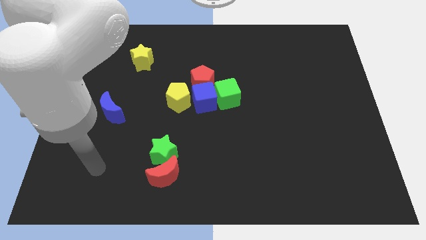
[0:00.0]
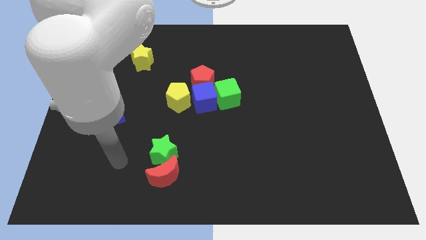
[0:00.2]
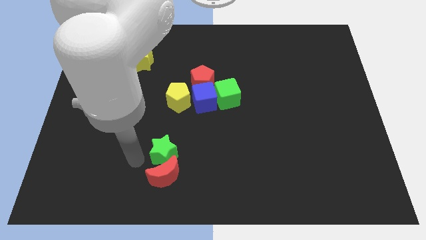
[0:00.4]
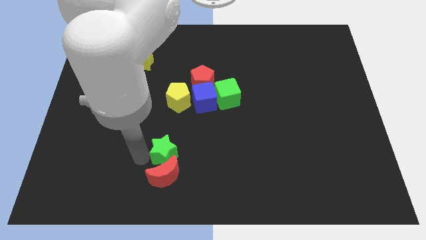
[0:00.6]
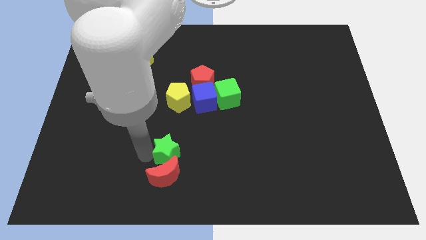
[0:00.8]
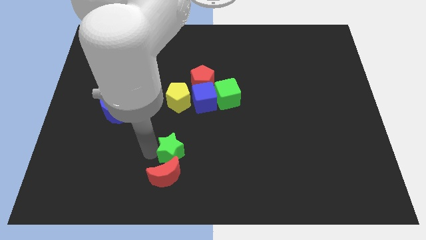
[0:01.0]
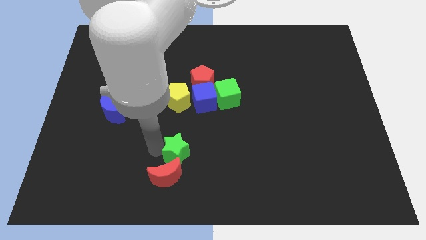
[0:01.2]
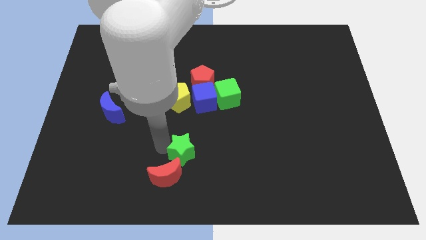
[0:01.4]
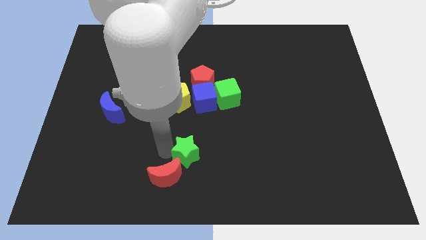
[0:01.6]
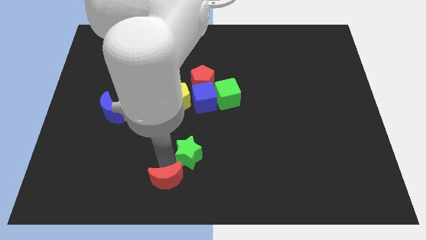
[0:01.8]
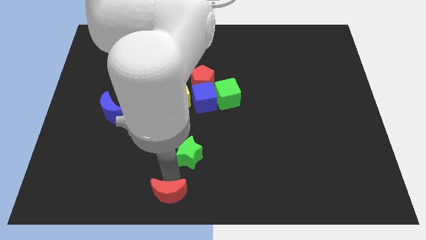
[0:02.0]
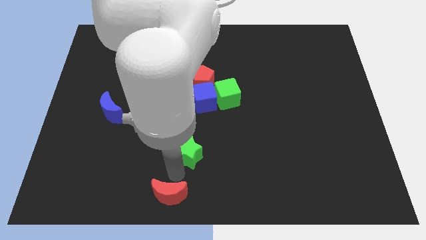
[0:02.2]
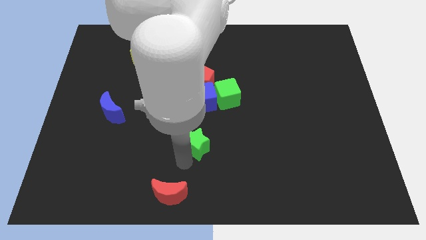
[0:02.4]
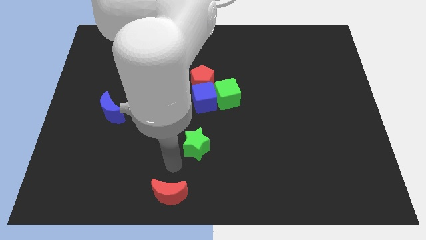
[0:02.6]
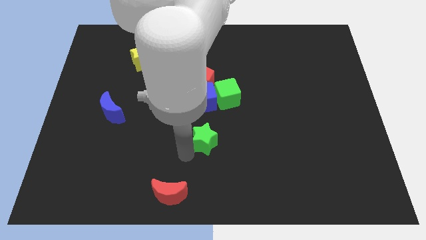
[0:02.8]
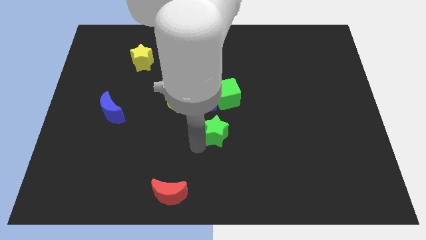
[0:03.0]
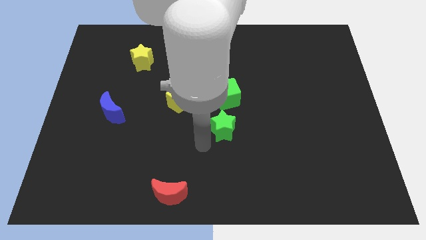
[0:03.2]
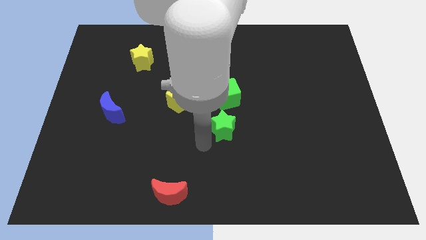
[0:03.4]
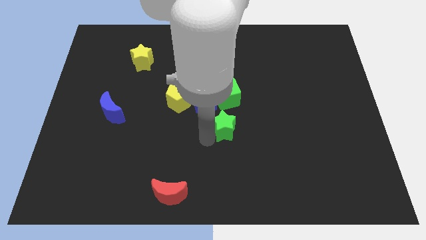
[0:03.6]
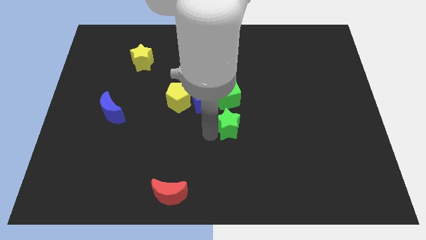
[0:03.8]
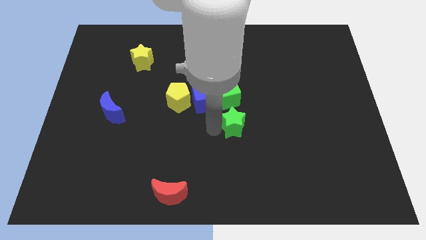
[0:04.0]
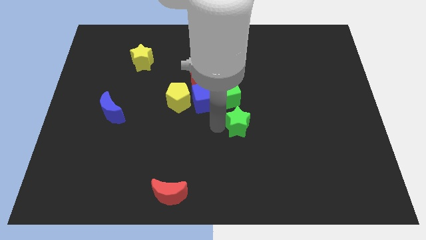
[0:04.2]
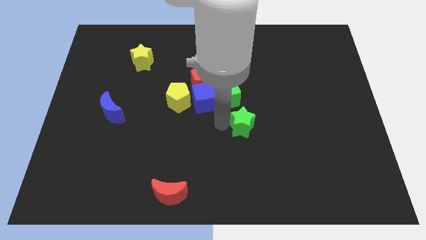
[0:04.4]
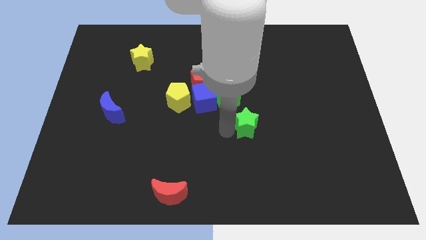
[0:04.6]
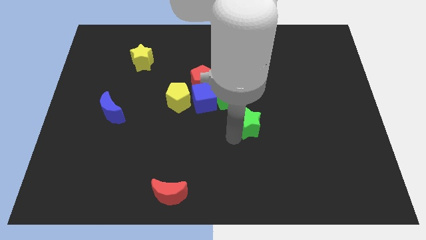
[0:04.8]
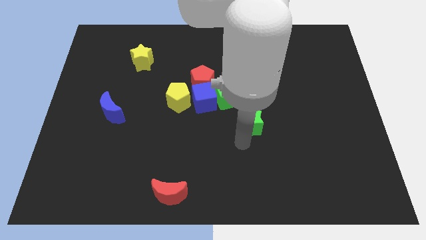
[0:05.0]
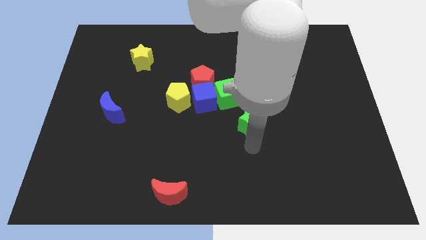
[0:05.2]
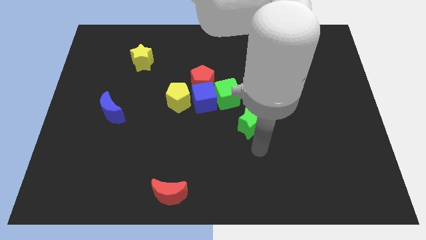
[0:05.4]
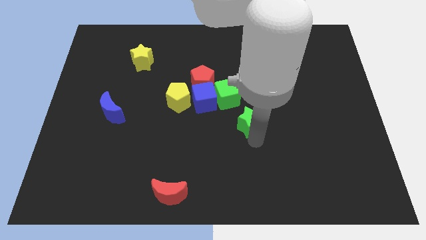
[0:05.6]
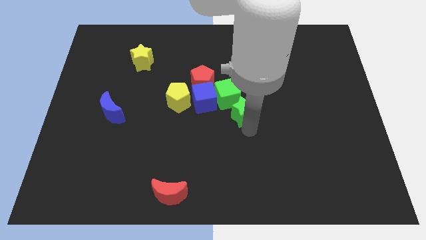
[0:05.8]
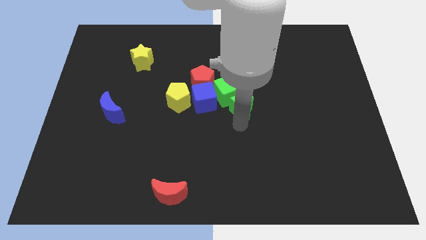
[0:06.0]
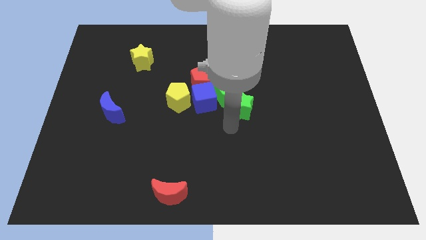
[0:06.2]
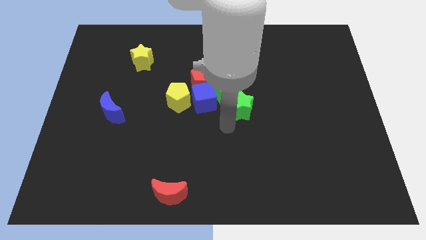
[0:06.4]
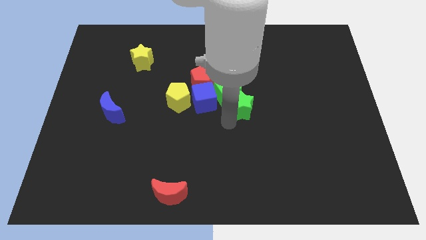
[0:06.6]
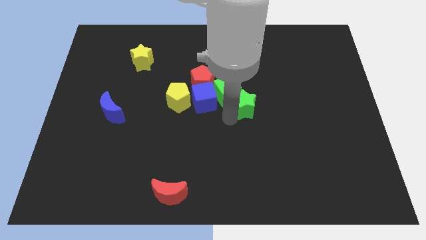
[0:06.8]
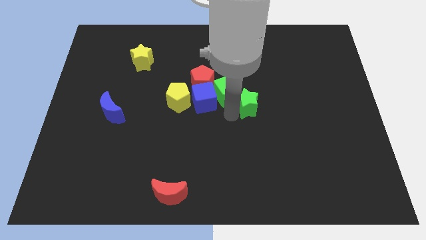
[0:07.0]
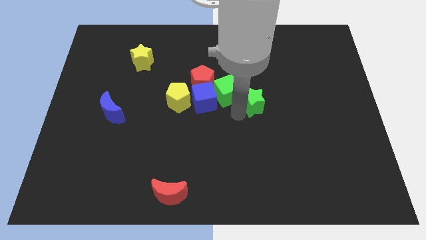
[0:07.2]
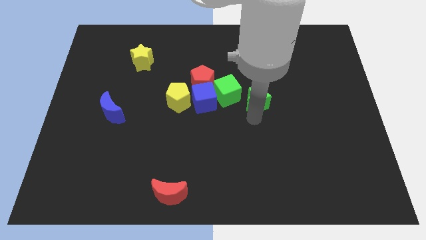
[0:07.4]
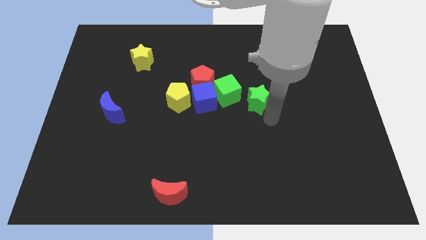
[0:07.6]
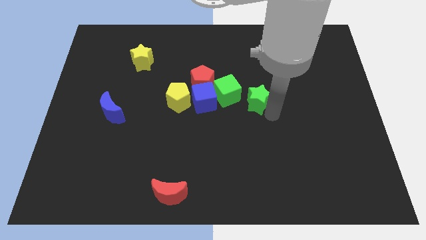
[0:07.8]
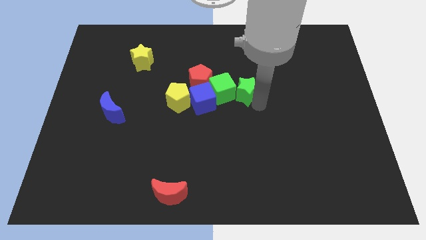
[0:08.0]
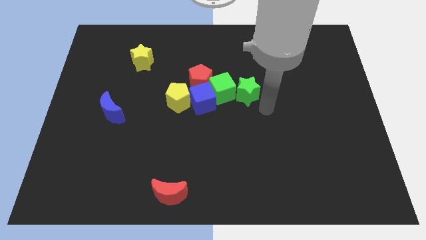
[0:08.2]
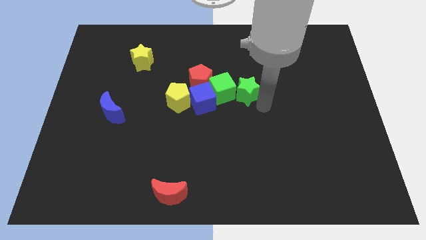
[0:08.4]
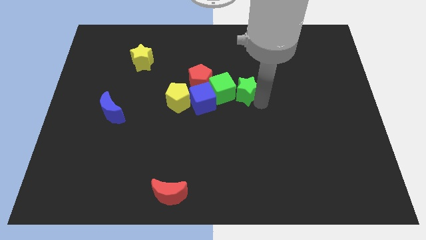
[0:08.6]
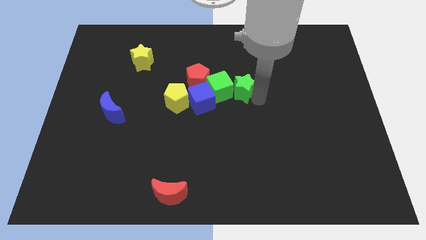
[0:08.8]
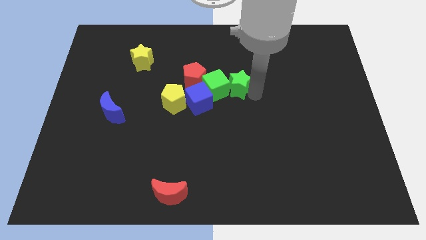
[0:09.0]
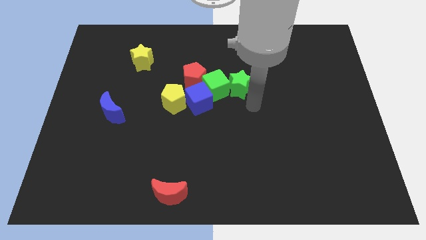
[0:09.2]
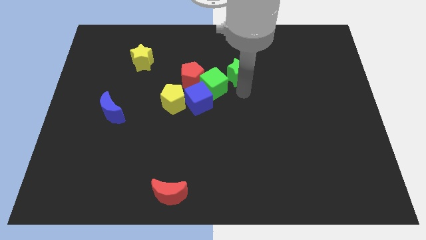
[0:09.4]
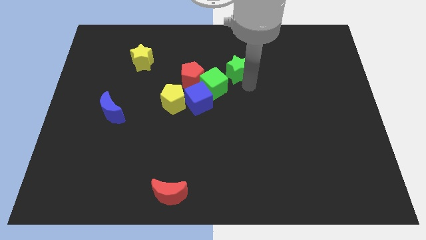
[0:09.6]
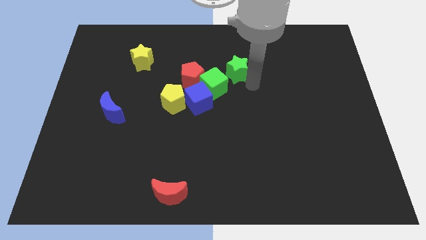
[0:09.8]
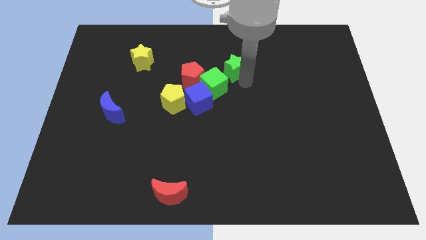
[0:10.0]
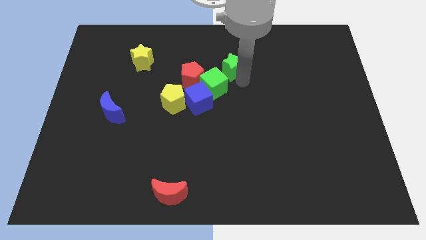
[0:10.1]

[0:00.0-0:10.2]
slide the green star to the top of the green cube

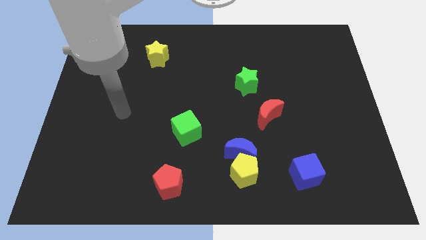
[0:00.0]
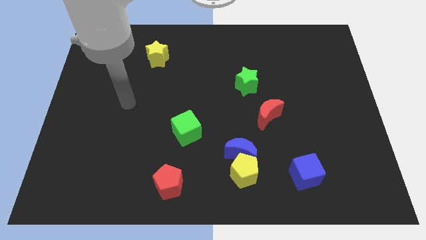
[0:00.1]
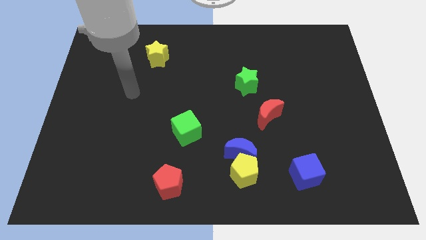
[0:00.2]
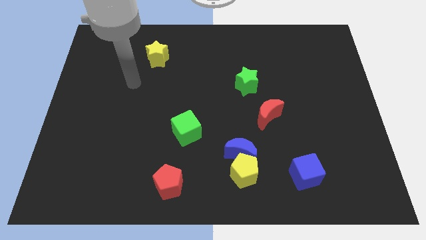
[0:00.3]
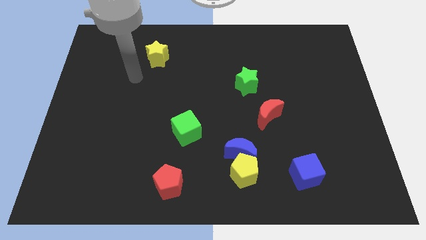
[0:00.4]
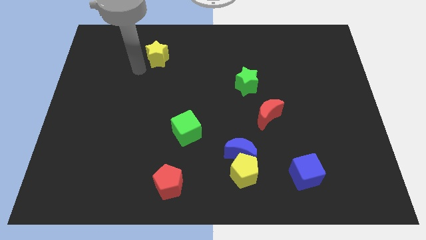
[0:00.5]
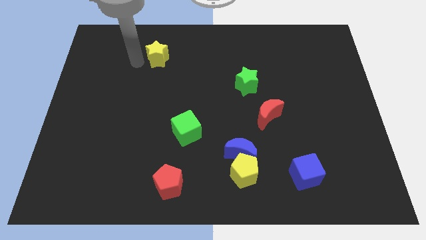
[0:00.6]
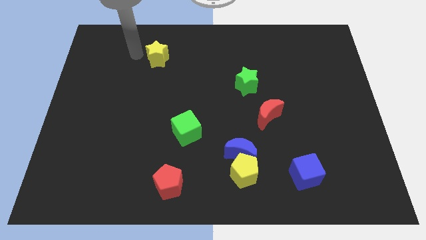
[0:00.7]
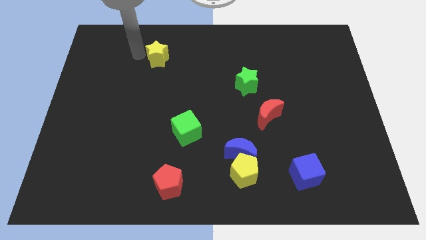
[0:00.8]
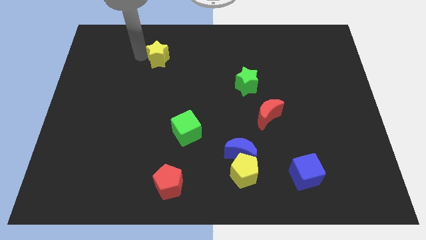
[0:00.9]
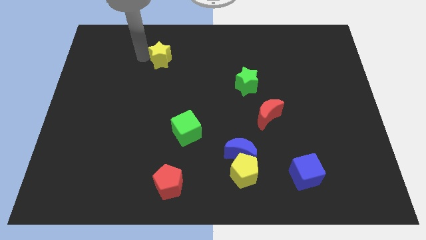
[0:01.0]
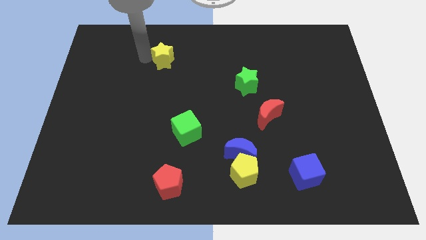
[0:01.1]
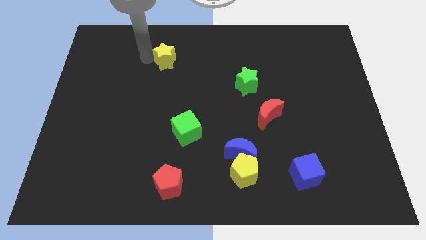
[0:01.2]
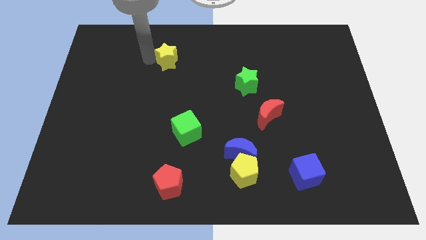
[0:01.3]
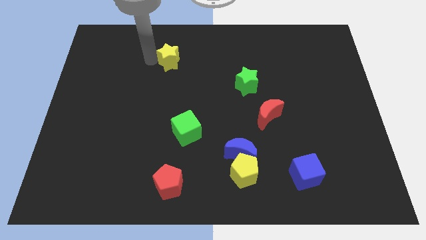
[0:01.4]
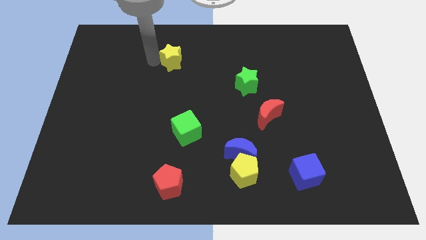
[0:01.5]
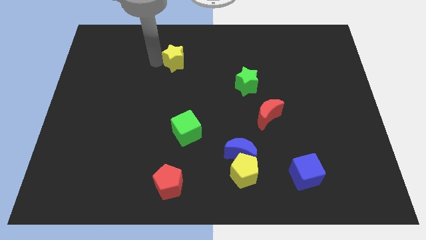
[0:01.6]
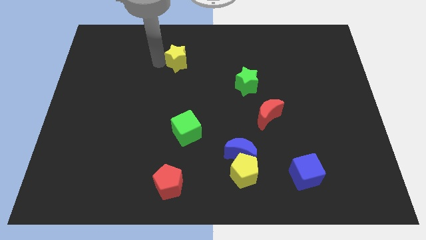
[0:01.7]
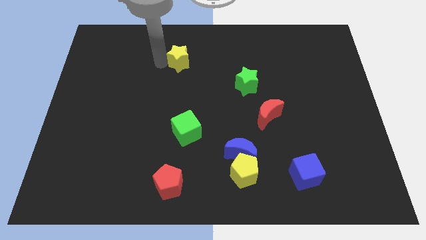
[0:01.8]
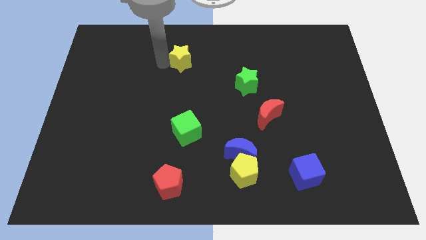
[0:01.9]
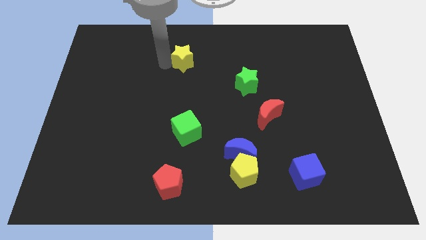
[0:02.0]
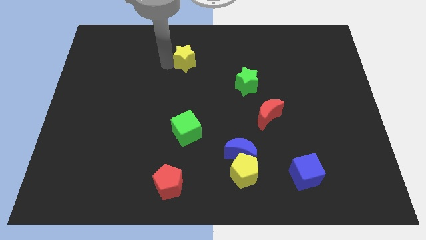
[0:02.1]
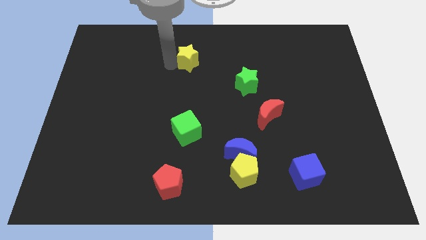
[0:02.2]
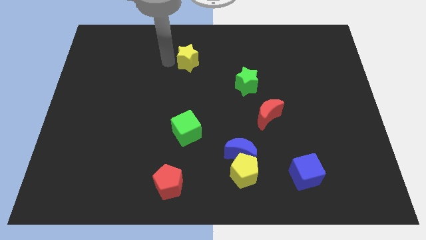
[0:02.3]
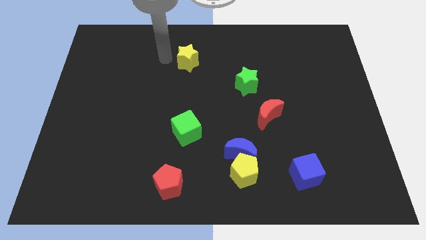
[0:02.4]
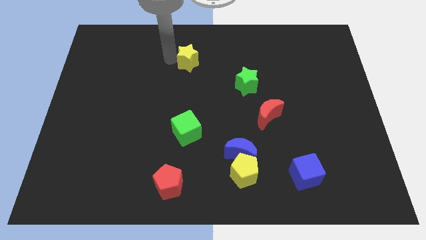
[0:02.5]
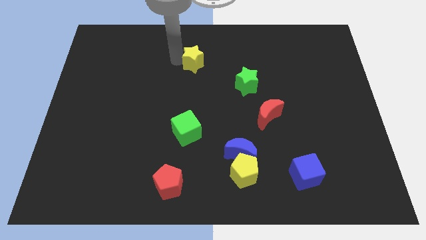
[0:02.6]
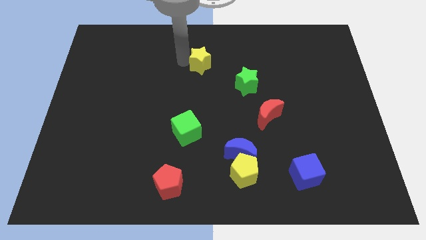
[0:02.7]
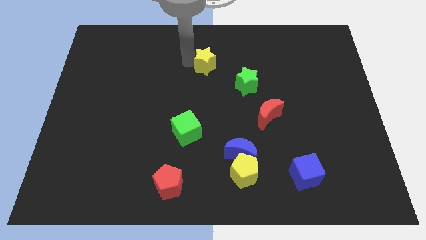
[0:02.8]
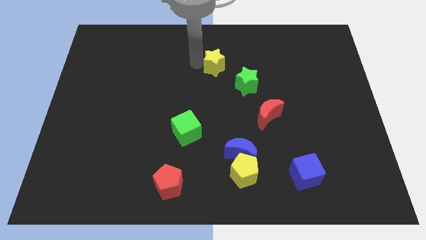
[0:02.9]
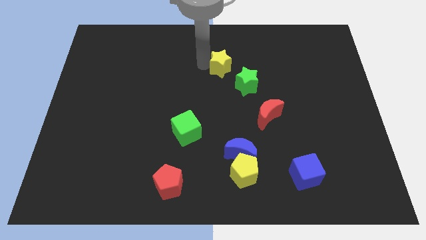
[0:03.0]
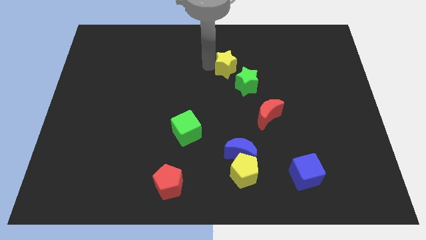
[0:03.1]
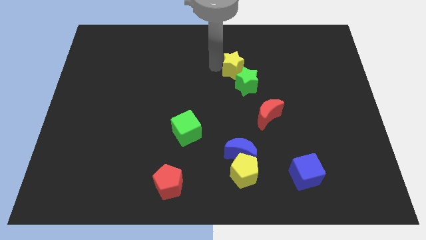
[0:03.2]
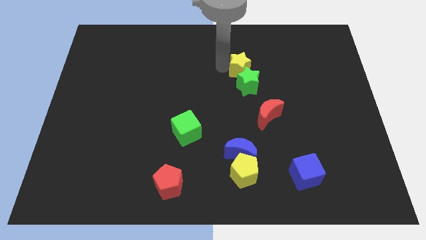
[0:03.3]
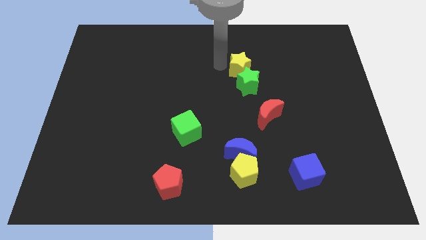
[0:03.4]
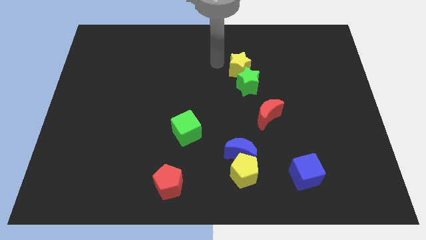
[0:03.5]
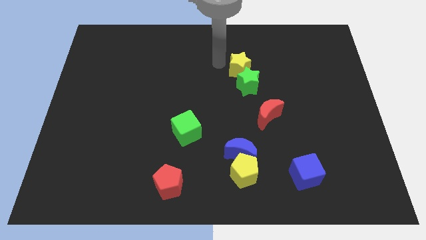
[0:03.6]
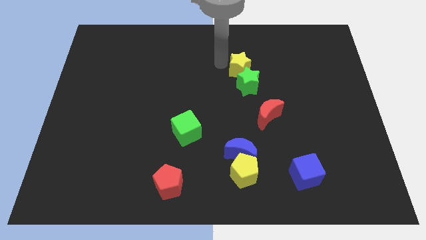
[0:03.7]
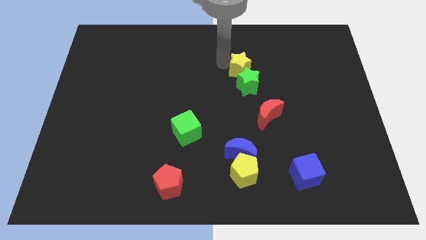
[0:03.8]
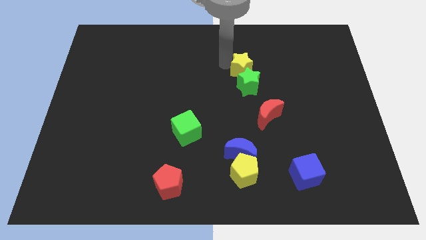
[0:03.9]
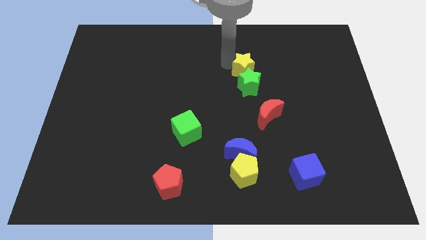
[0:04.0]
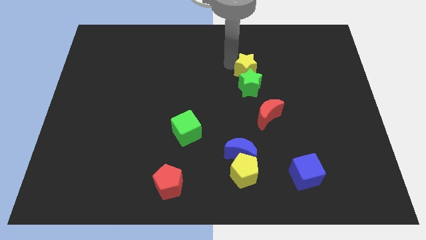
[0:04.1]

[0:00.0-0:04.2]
slide the yellow star to the top side of the red moon
